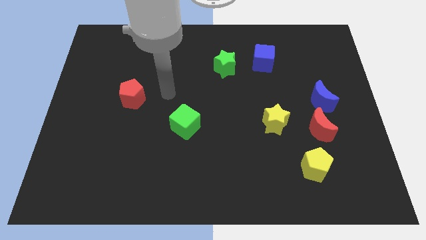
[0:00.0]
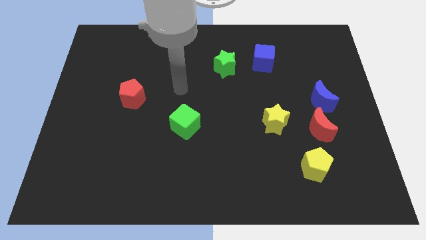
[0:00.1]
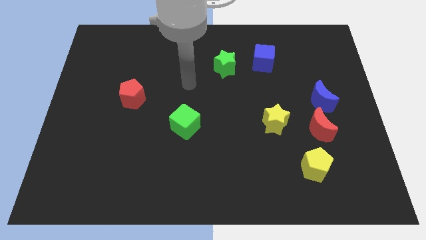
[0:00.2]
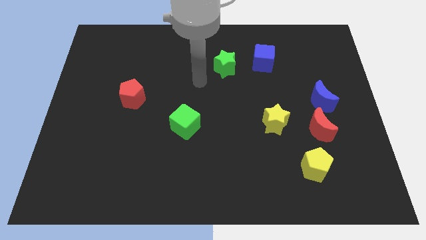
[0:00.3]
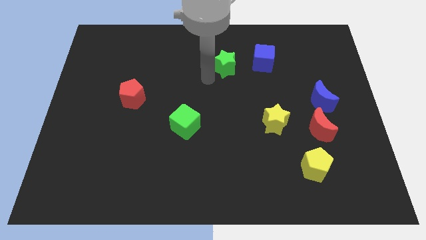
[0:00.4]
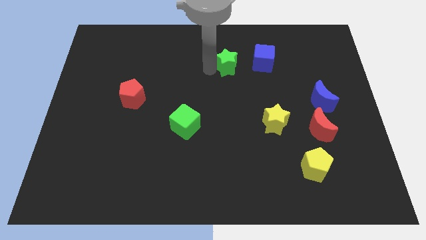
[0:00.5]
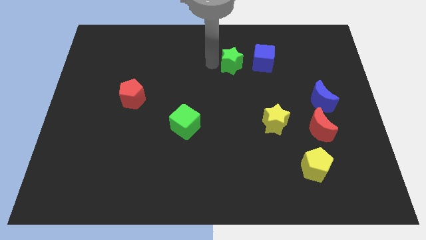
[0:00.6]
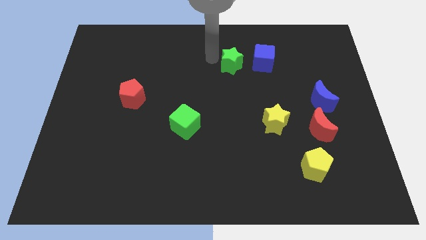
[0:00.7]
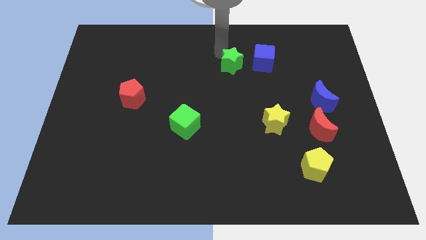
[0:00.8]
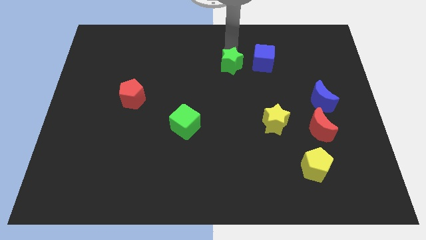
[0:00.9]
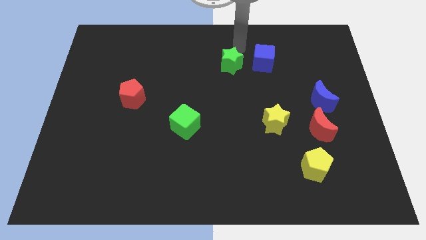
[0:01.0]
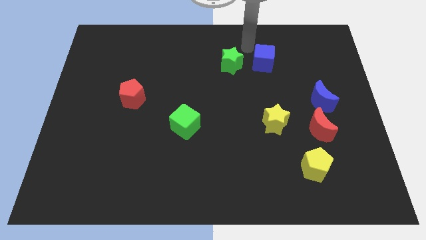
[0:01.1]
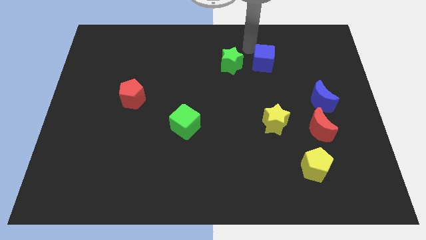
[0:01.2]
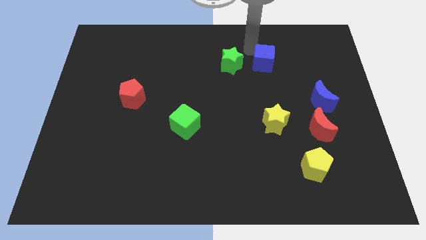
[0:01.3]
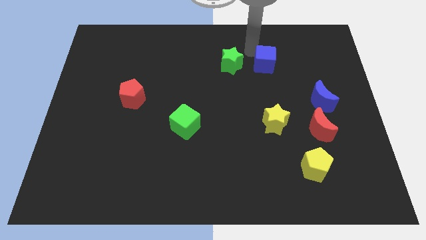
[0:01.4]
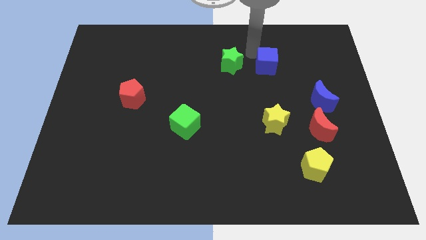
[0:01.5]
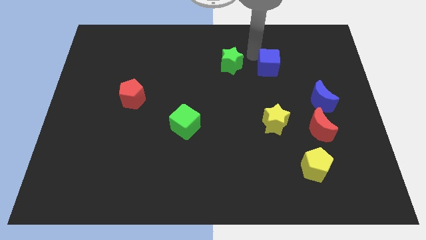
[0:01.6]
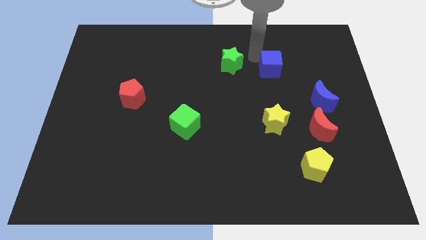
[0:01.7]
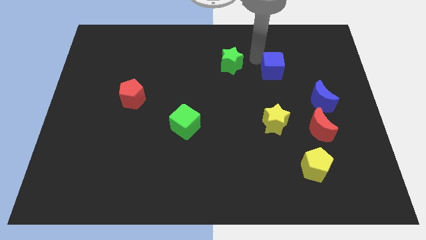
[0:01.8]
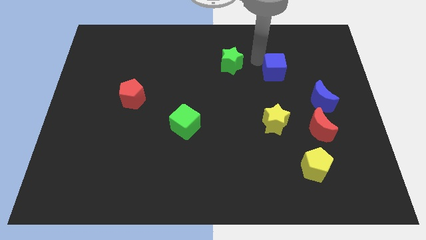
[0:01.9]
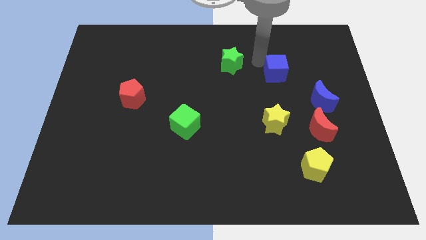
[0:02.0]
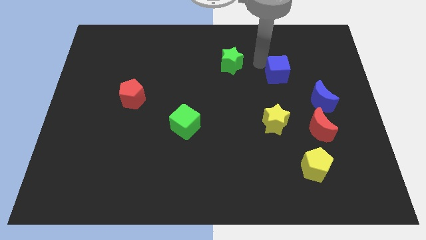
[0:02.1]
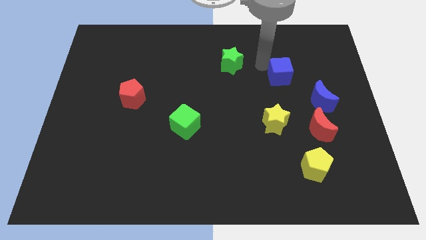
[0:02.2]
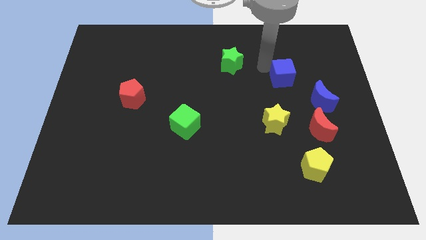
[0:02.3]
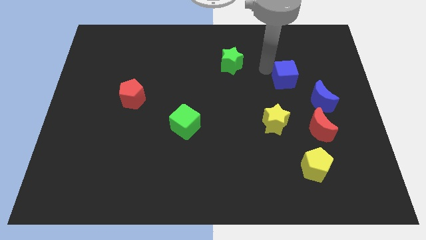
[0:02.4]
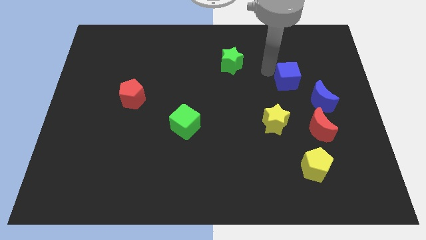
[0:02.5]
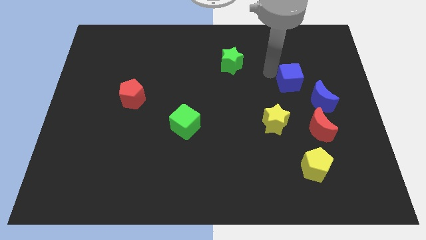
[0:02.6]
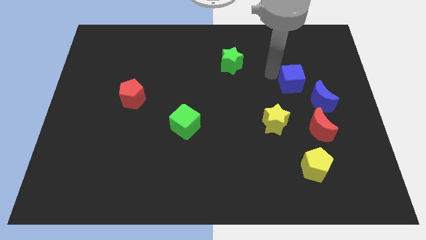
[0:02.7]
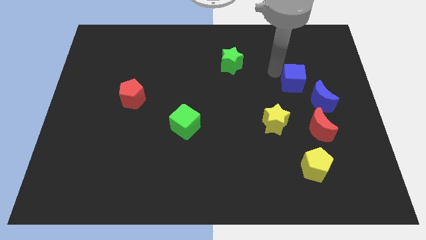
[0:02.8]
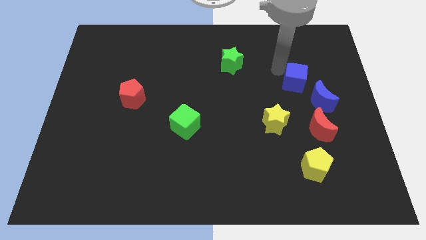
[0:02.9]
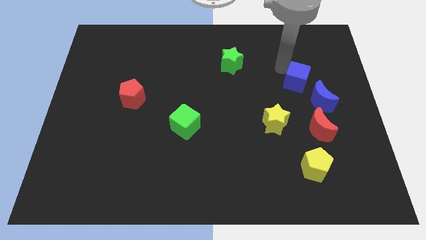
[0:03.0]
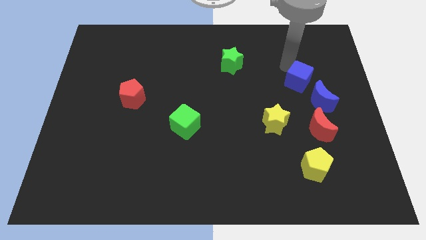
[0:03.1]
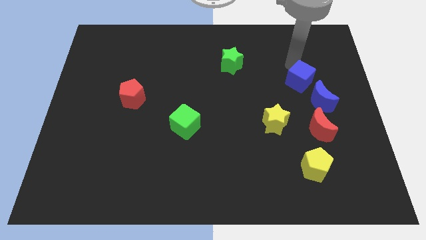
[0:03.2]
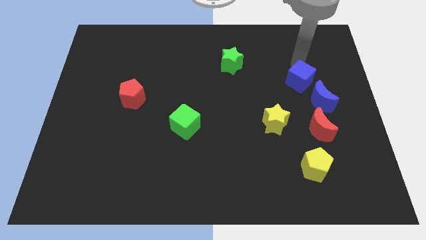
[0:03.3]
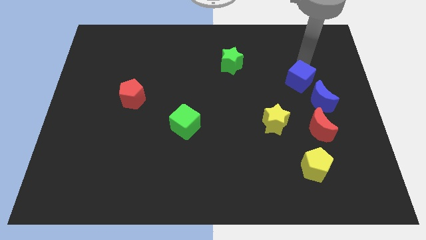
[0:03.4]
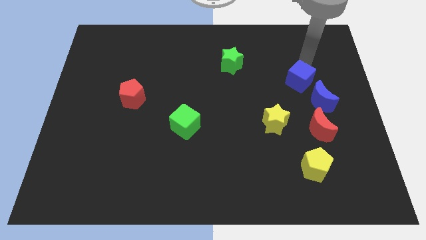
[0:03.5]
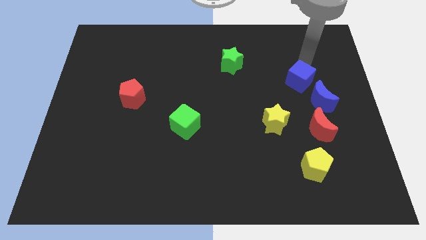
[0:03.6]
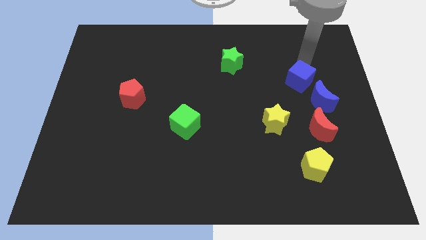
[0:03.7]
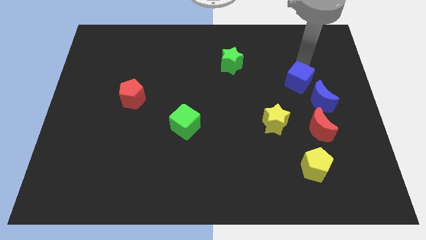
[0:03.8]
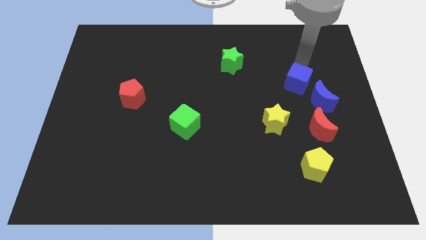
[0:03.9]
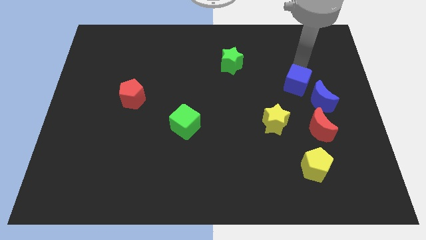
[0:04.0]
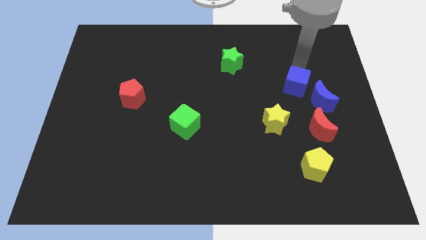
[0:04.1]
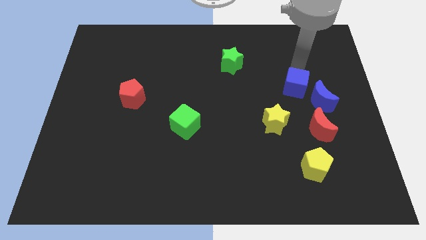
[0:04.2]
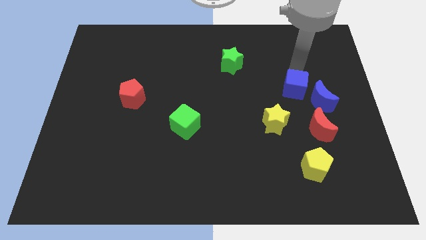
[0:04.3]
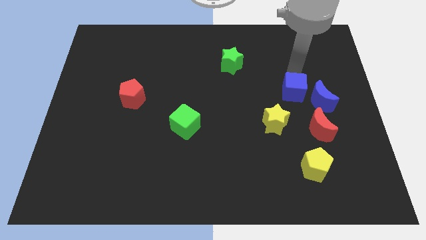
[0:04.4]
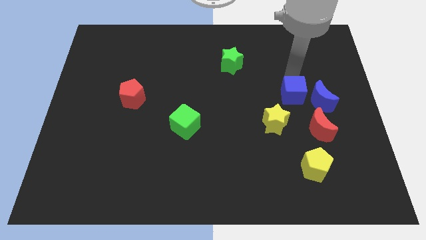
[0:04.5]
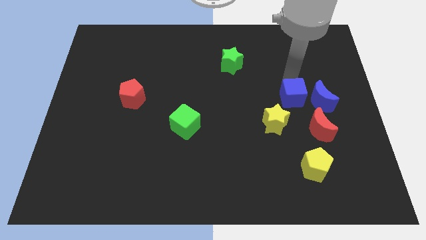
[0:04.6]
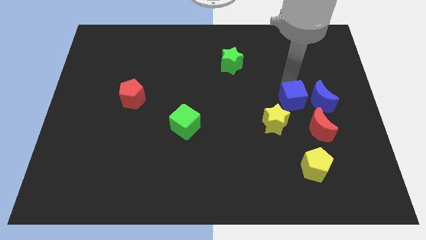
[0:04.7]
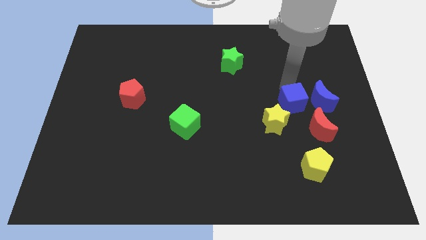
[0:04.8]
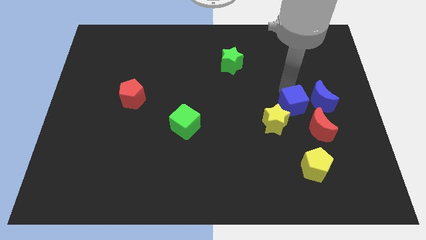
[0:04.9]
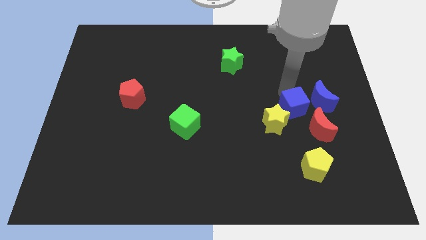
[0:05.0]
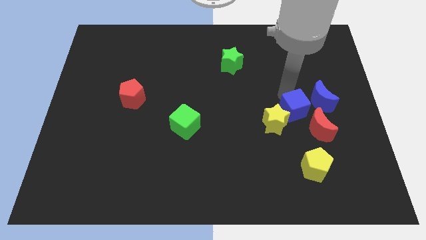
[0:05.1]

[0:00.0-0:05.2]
push the blue cube to the top of the yellow pentagon

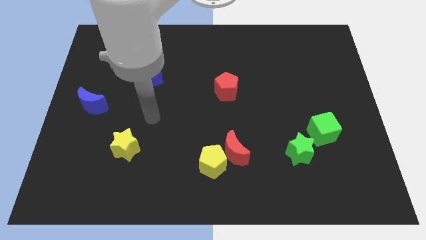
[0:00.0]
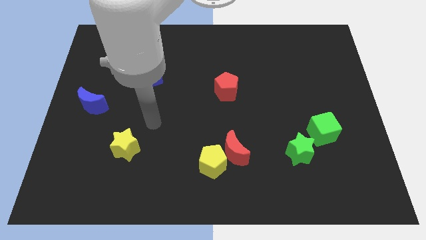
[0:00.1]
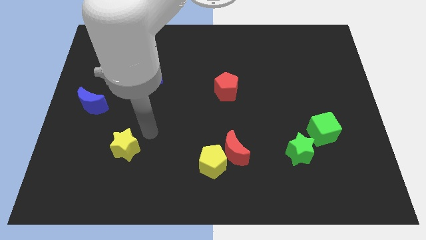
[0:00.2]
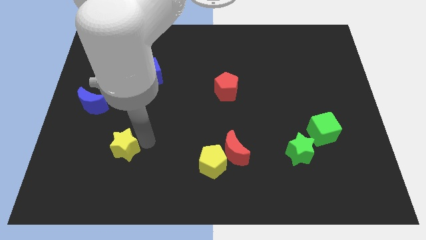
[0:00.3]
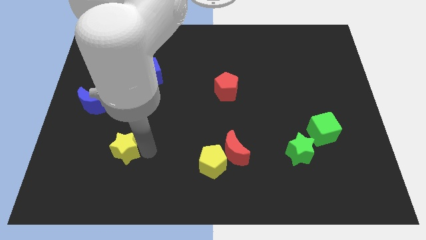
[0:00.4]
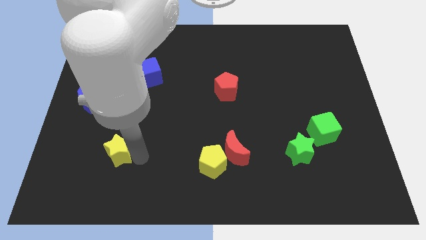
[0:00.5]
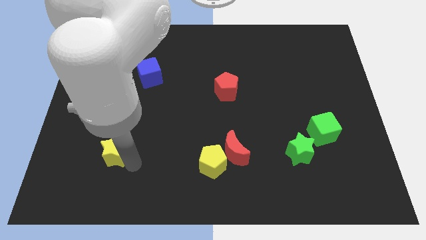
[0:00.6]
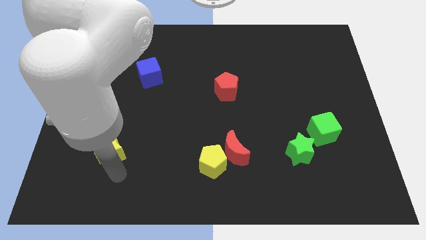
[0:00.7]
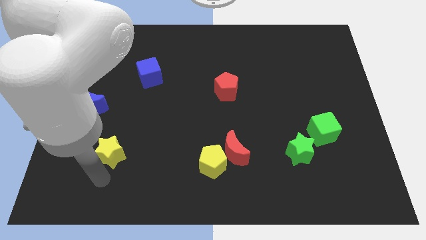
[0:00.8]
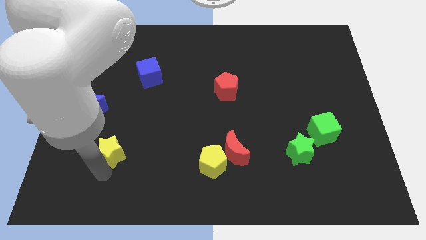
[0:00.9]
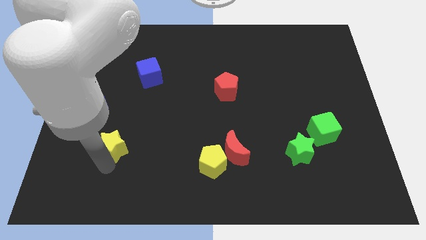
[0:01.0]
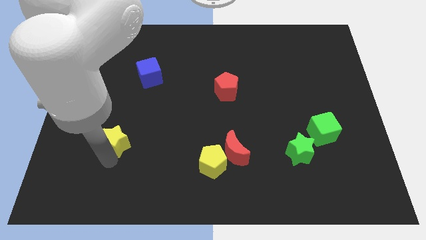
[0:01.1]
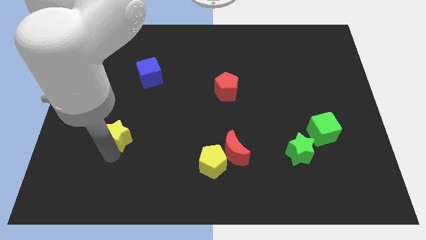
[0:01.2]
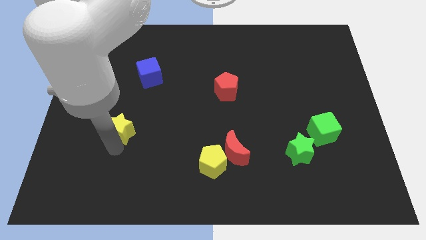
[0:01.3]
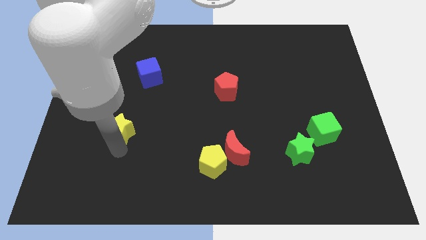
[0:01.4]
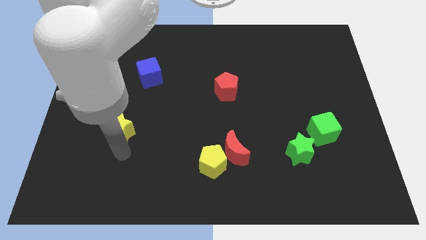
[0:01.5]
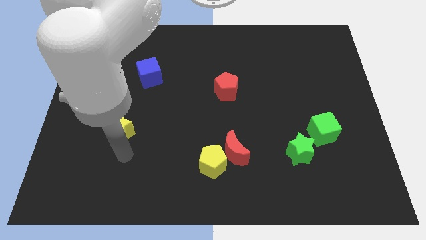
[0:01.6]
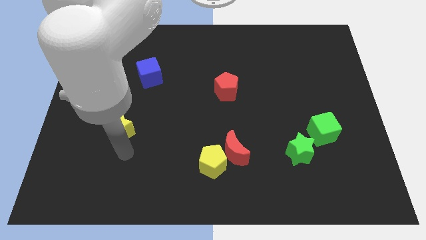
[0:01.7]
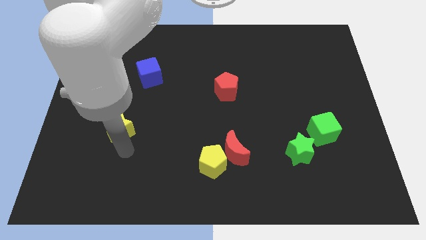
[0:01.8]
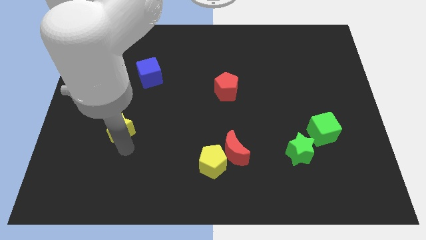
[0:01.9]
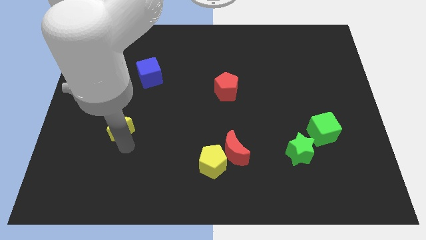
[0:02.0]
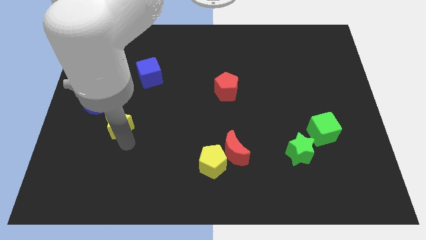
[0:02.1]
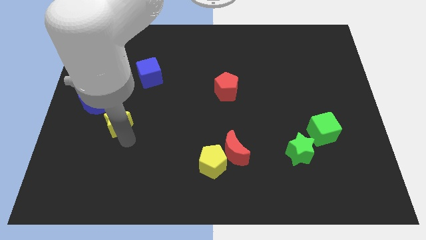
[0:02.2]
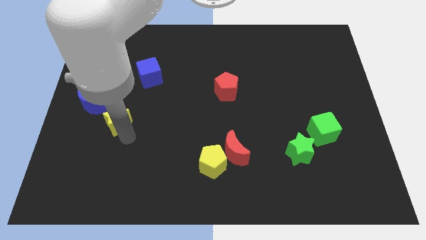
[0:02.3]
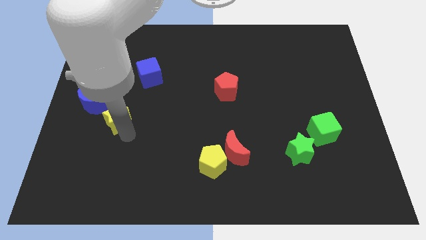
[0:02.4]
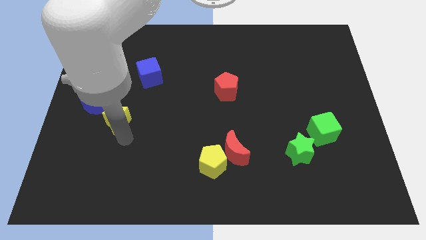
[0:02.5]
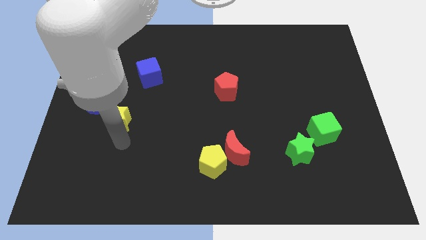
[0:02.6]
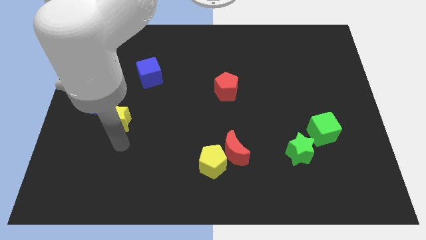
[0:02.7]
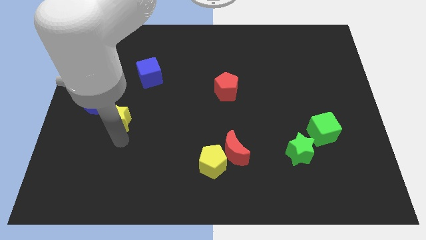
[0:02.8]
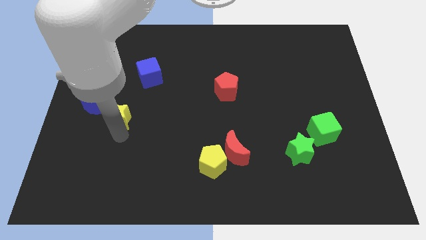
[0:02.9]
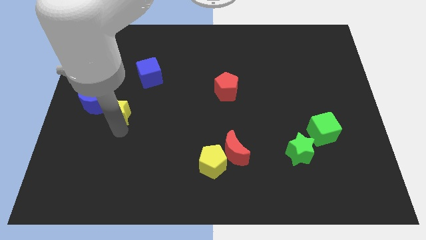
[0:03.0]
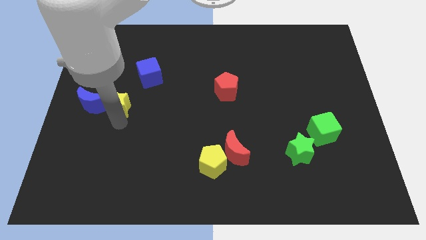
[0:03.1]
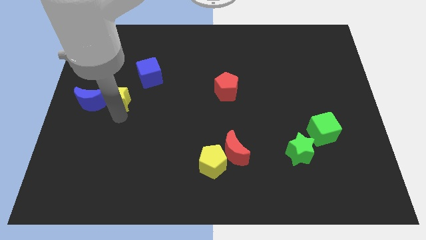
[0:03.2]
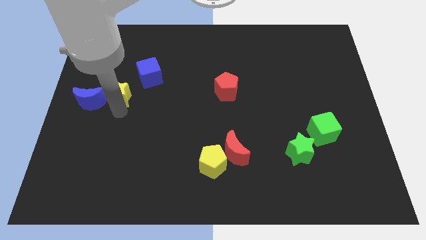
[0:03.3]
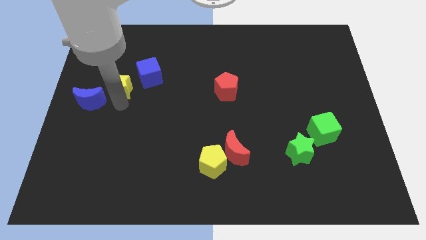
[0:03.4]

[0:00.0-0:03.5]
put the yellow star to the left of the blue cube
